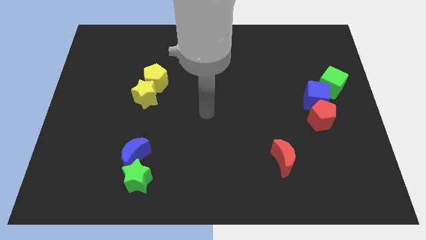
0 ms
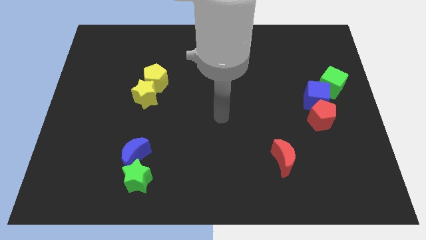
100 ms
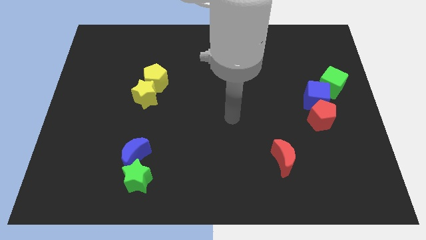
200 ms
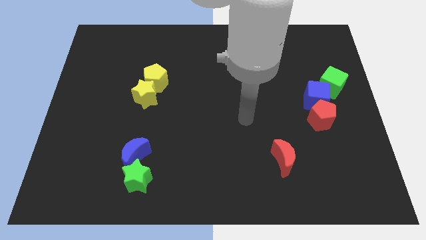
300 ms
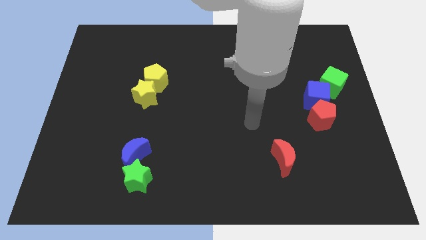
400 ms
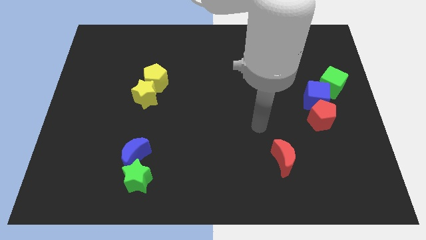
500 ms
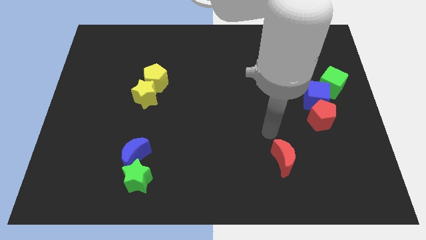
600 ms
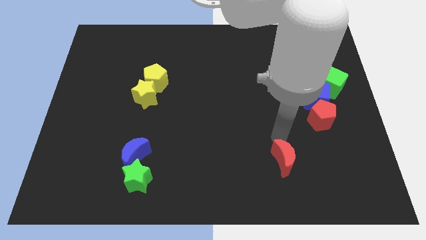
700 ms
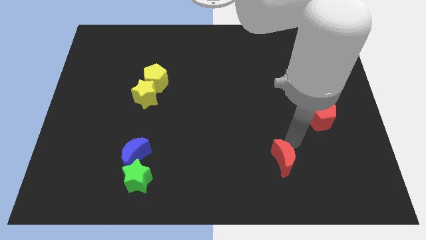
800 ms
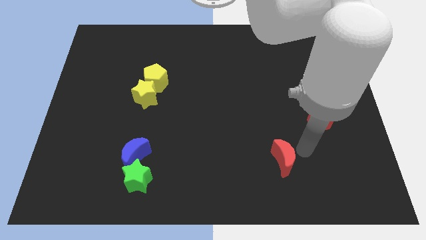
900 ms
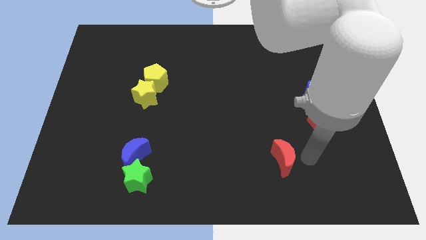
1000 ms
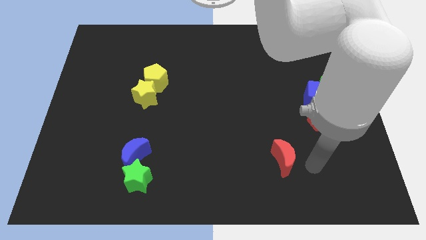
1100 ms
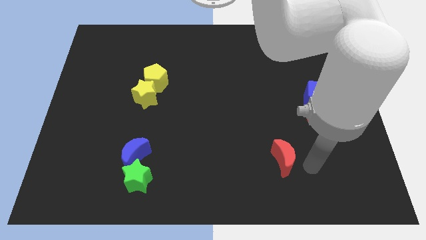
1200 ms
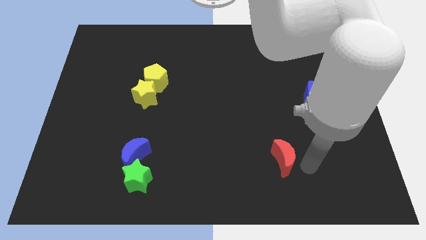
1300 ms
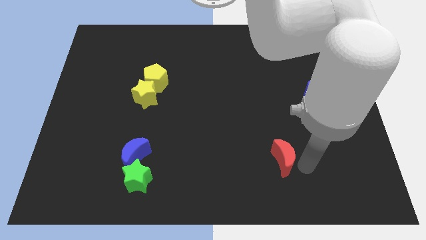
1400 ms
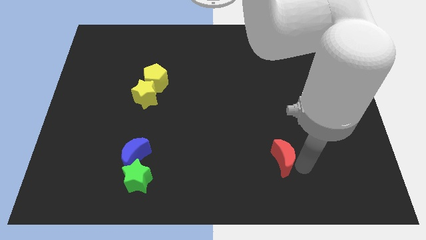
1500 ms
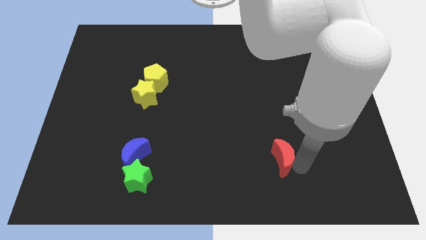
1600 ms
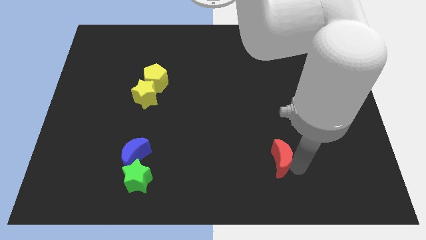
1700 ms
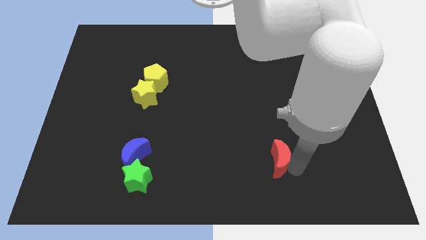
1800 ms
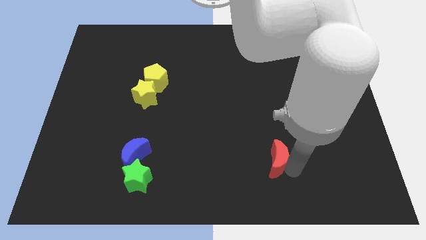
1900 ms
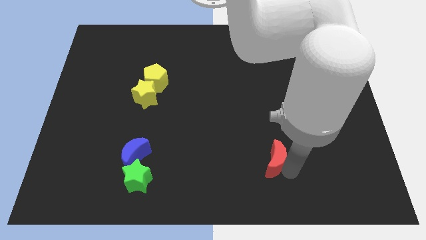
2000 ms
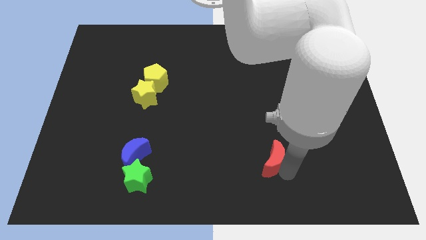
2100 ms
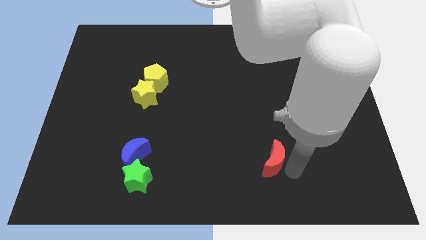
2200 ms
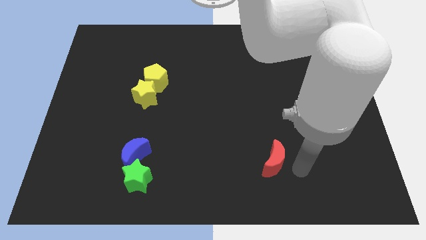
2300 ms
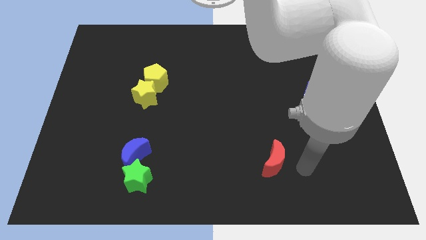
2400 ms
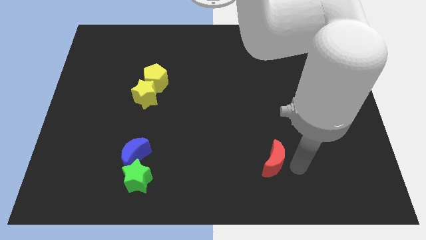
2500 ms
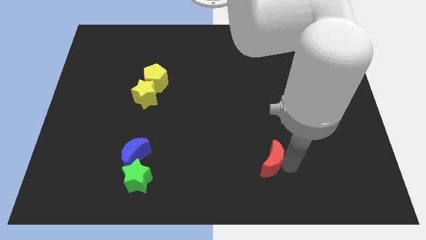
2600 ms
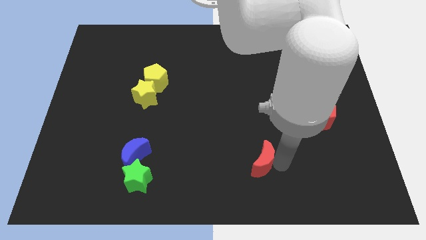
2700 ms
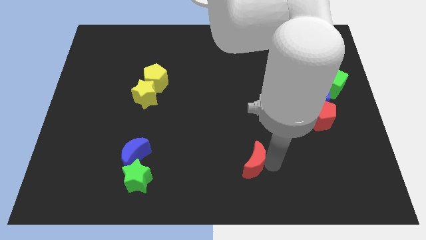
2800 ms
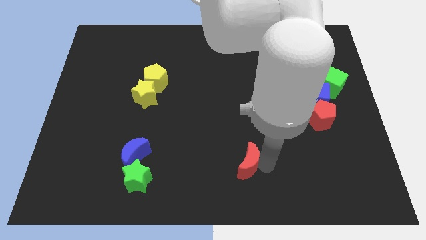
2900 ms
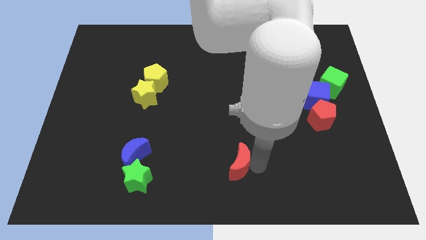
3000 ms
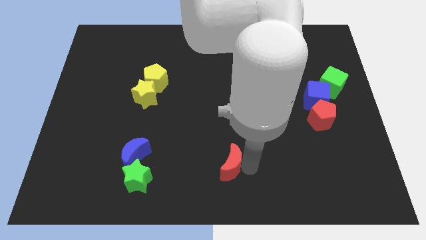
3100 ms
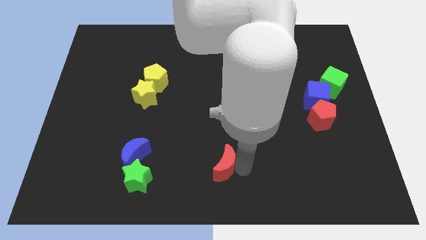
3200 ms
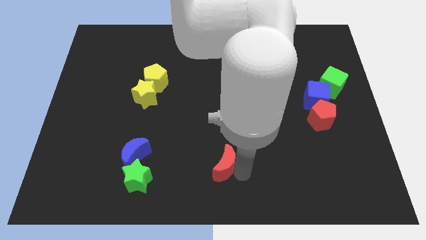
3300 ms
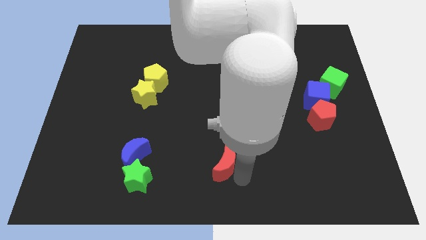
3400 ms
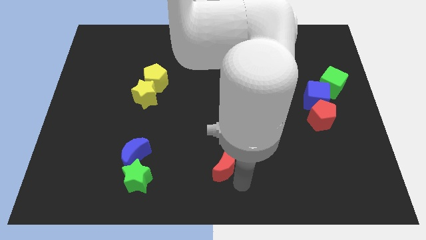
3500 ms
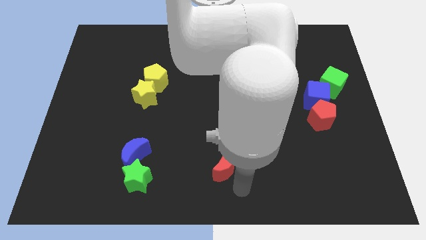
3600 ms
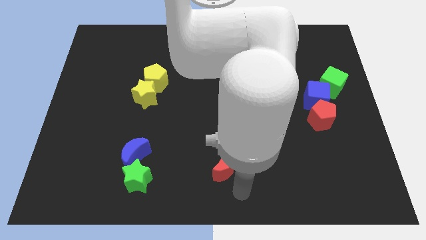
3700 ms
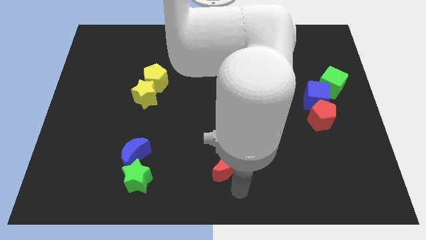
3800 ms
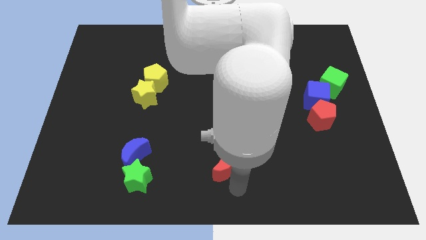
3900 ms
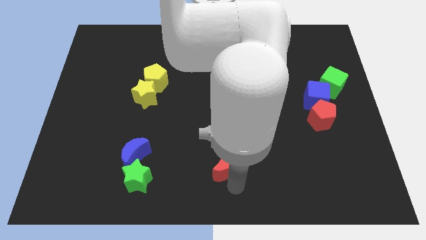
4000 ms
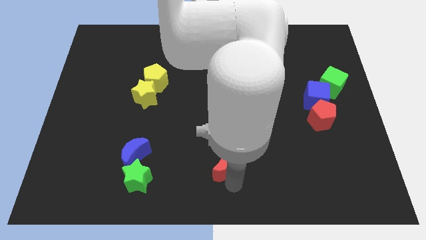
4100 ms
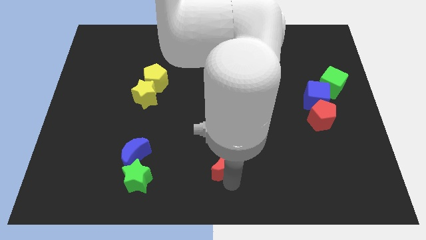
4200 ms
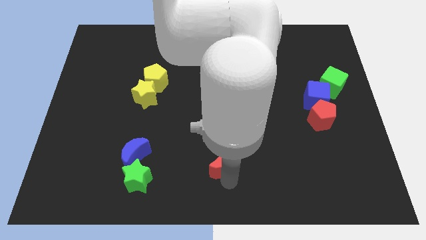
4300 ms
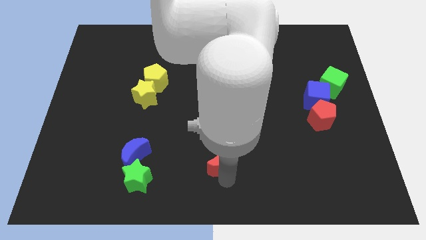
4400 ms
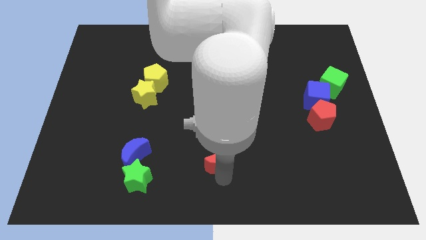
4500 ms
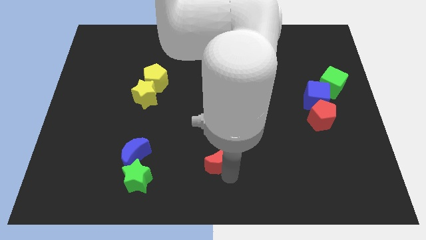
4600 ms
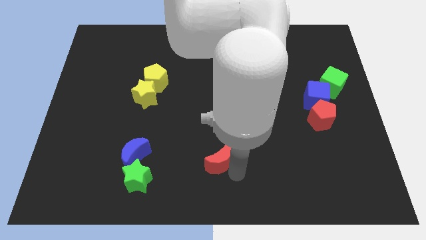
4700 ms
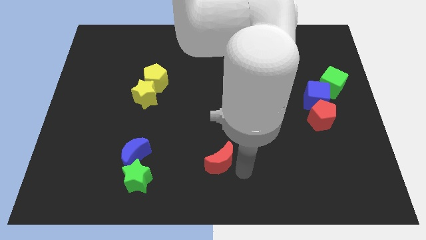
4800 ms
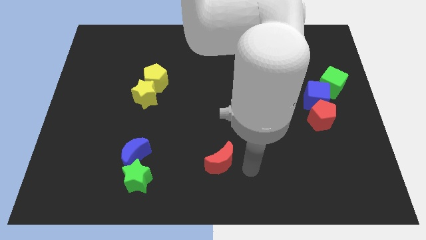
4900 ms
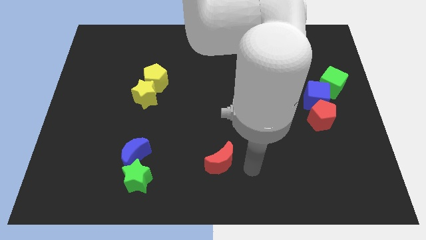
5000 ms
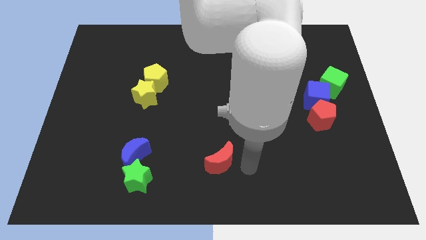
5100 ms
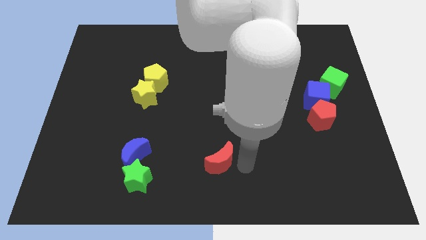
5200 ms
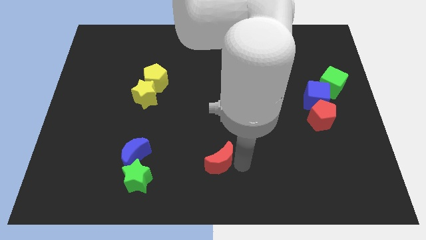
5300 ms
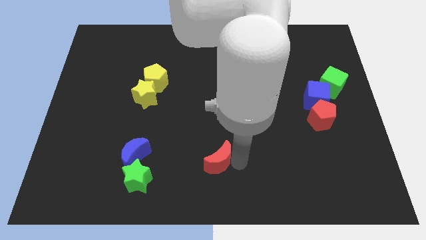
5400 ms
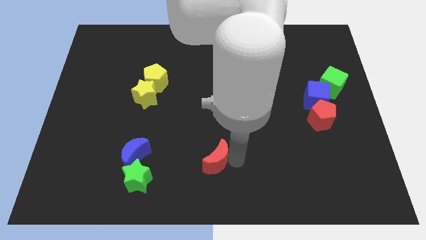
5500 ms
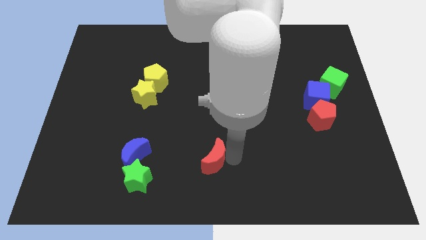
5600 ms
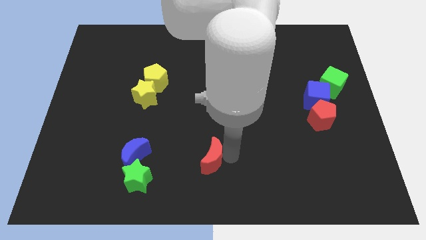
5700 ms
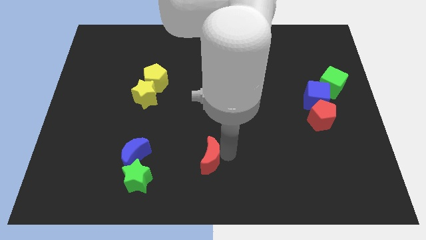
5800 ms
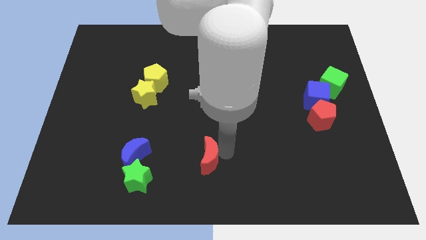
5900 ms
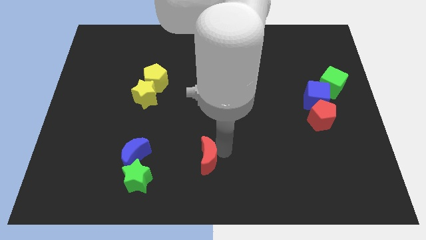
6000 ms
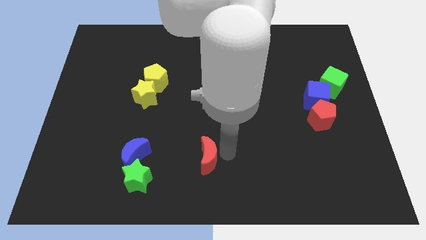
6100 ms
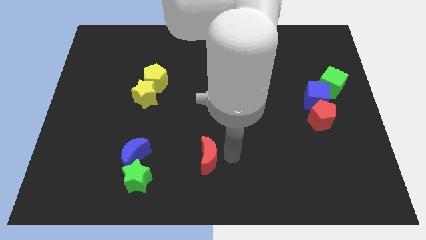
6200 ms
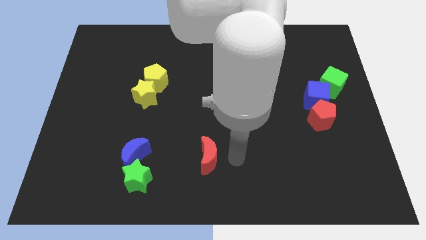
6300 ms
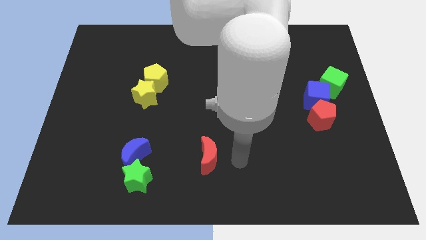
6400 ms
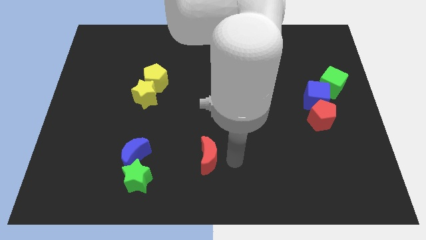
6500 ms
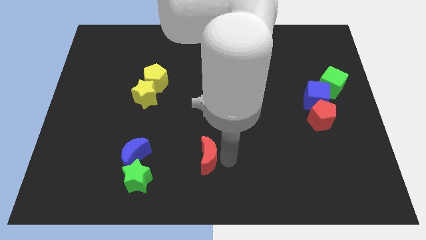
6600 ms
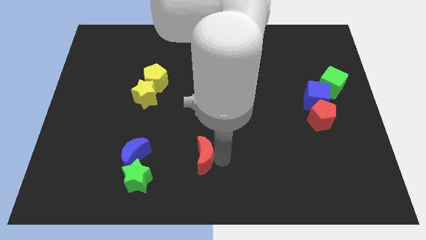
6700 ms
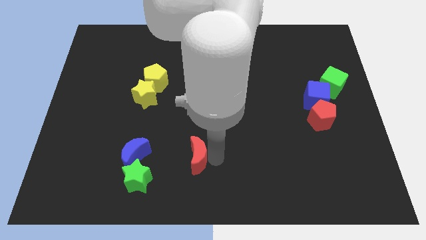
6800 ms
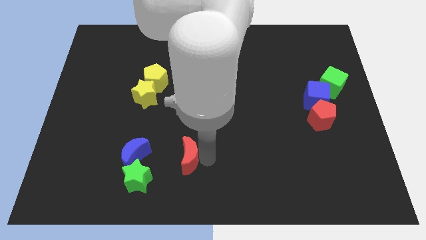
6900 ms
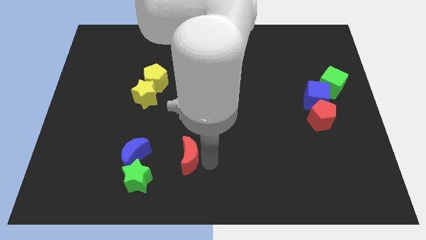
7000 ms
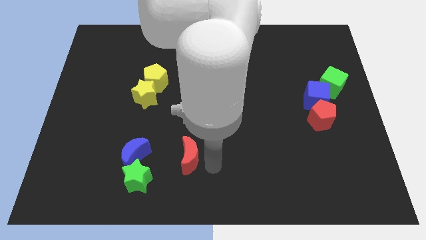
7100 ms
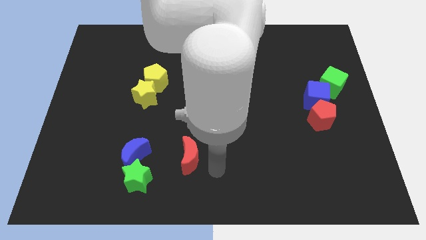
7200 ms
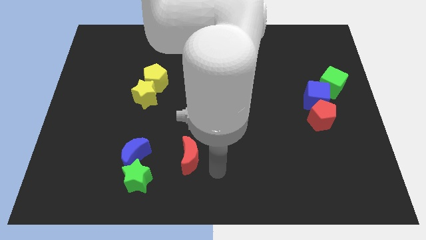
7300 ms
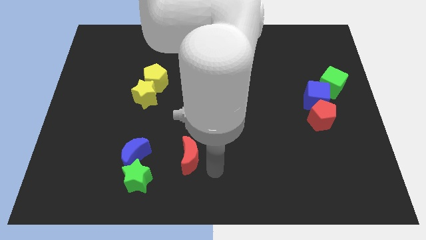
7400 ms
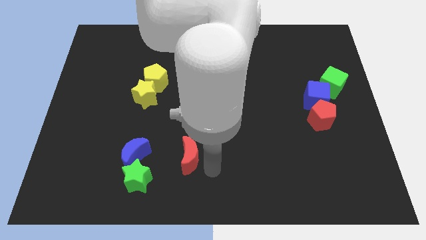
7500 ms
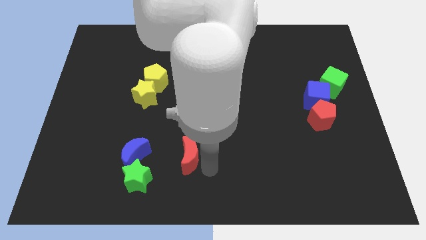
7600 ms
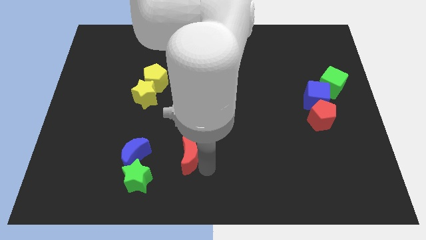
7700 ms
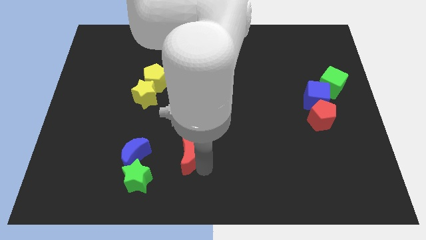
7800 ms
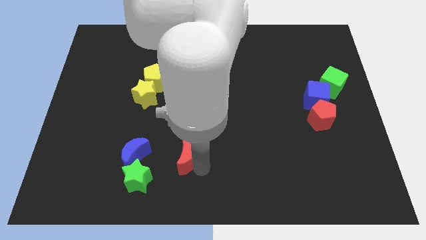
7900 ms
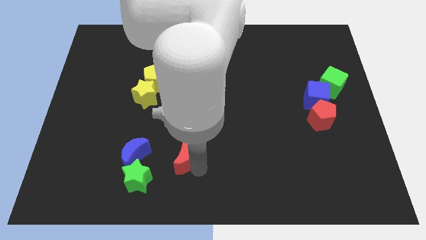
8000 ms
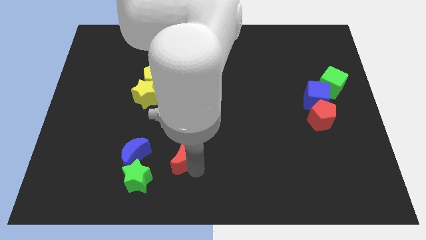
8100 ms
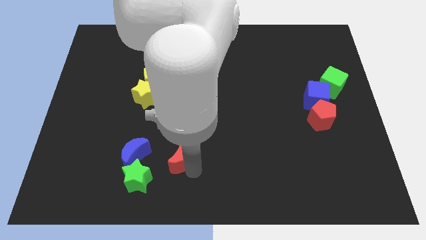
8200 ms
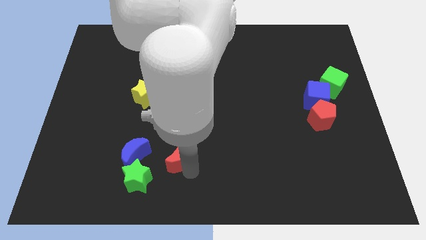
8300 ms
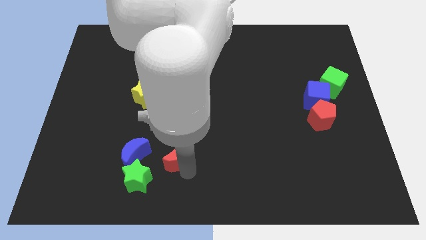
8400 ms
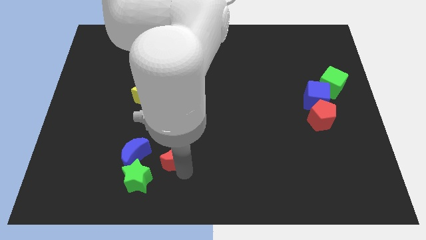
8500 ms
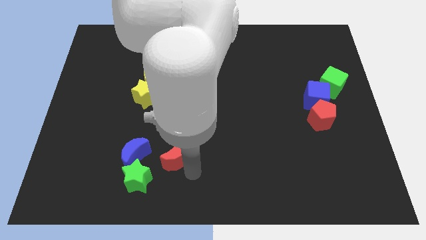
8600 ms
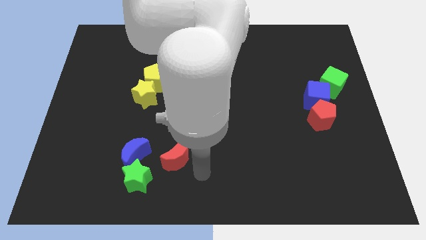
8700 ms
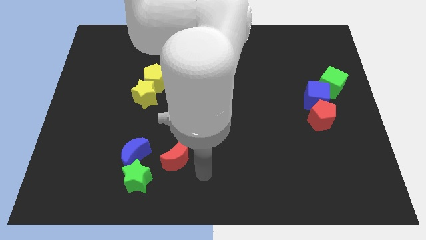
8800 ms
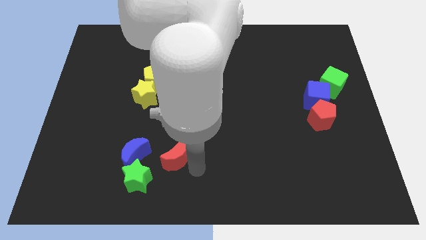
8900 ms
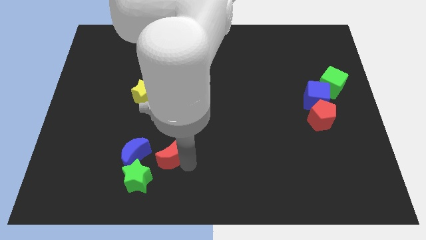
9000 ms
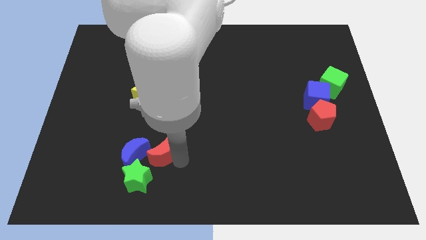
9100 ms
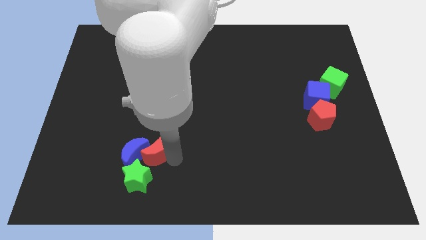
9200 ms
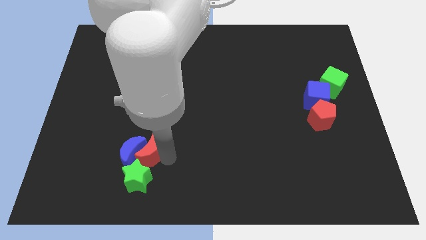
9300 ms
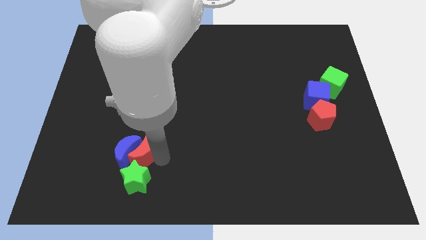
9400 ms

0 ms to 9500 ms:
put the red moon to the top left of the green star
